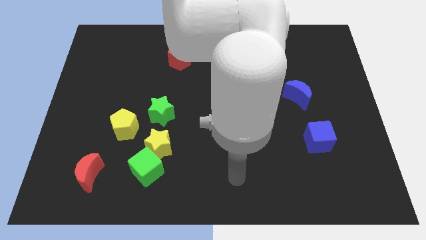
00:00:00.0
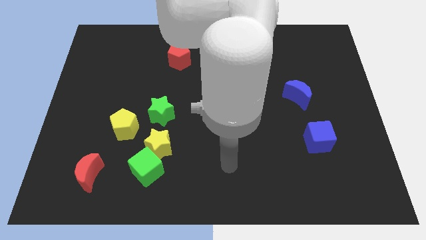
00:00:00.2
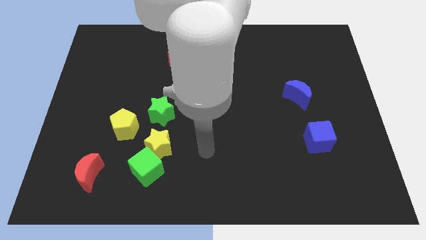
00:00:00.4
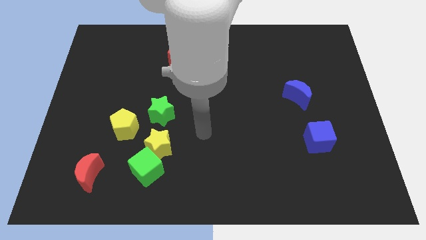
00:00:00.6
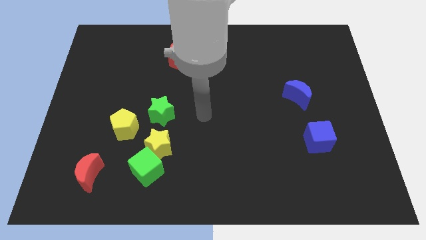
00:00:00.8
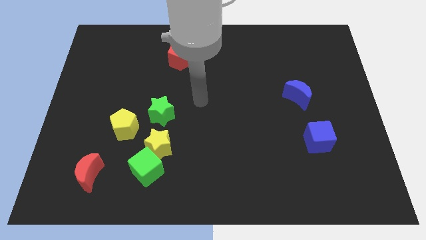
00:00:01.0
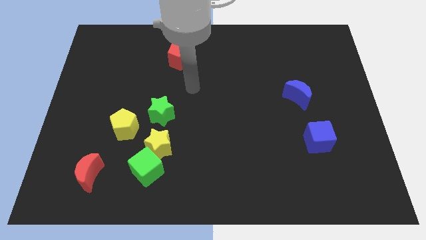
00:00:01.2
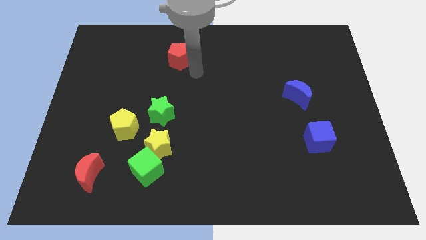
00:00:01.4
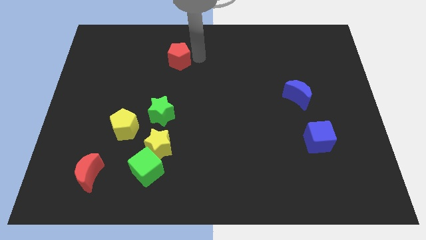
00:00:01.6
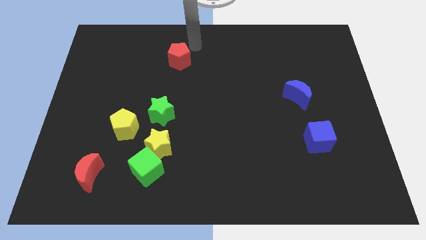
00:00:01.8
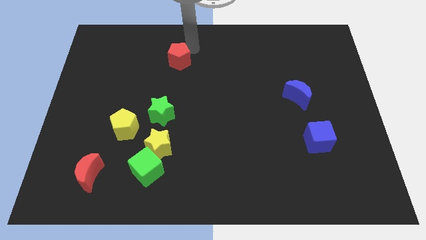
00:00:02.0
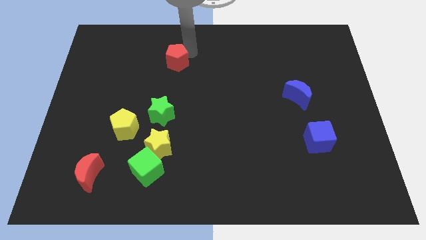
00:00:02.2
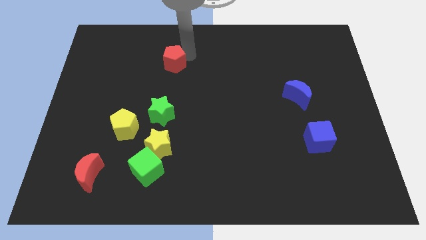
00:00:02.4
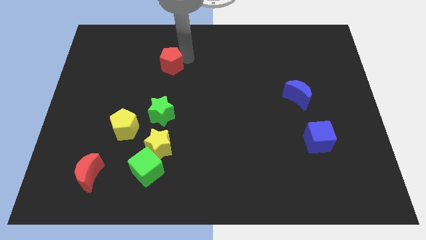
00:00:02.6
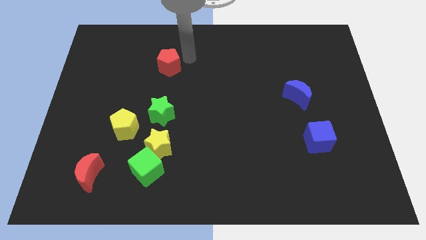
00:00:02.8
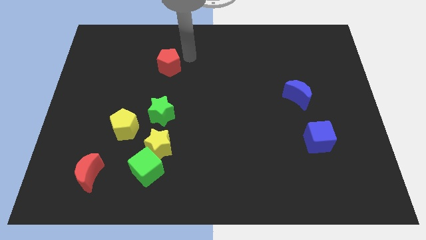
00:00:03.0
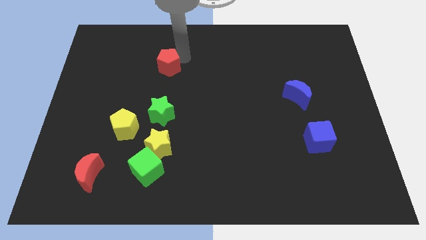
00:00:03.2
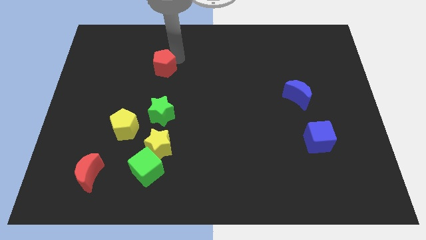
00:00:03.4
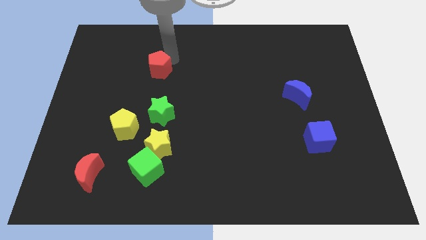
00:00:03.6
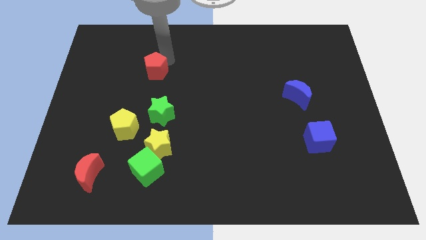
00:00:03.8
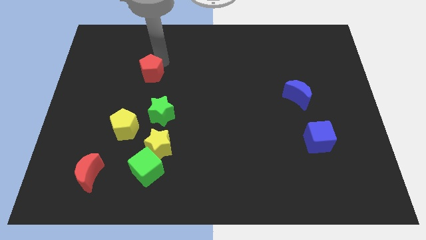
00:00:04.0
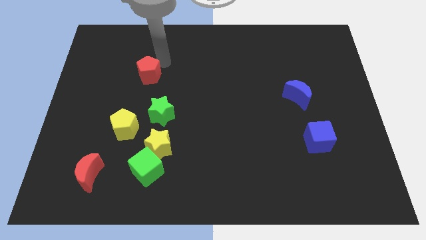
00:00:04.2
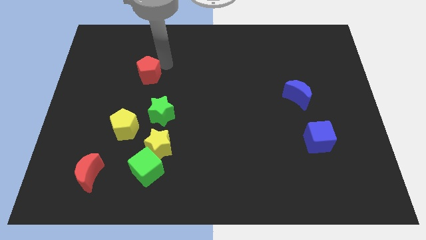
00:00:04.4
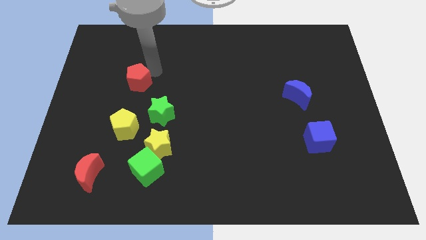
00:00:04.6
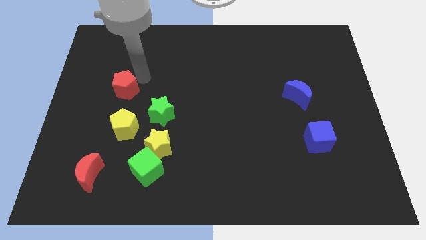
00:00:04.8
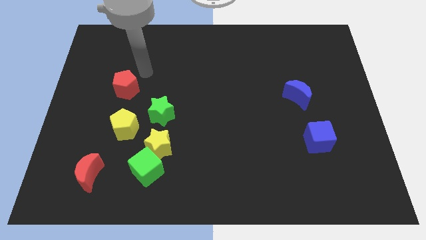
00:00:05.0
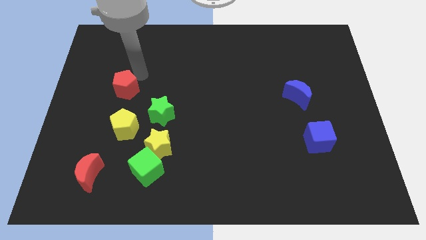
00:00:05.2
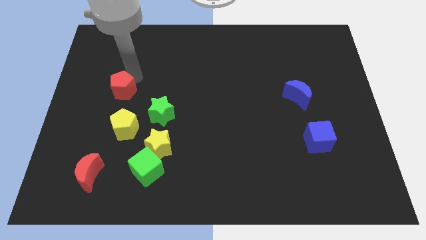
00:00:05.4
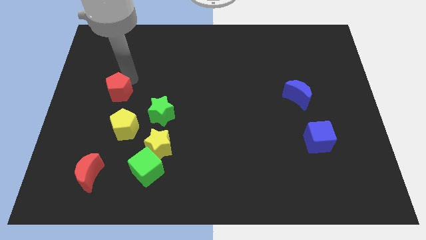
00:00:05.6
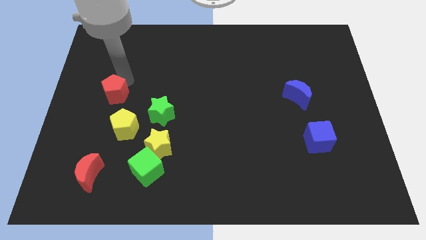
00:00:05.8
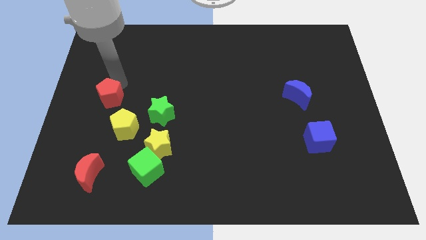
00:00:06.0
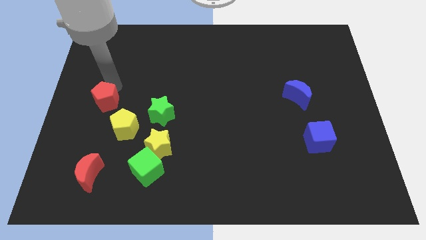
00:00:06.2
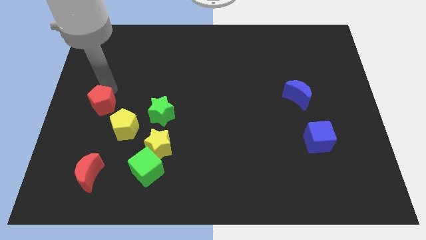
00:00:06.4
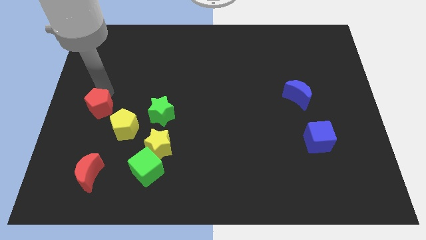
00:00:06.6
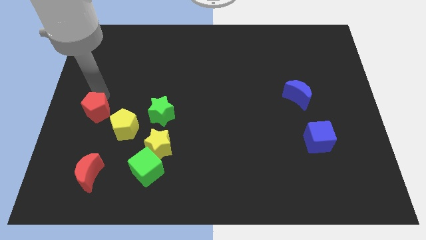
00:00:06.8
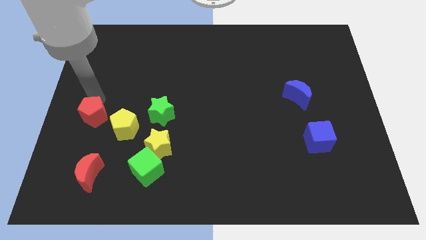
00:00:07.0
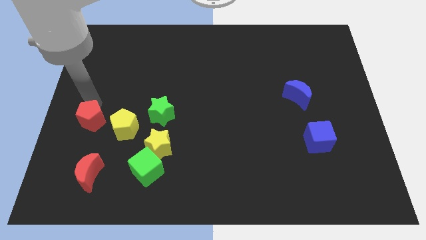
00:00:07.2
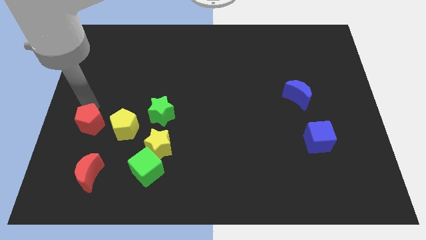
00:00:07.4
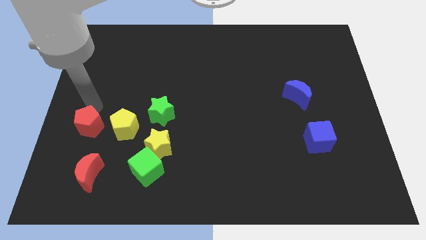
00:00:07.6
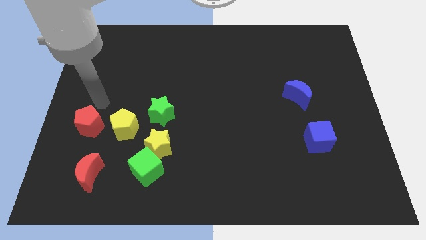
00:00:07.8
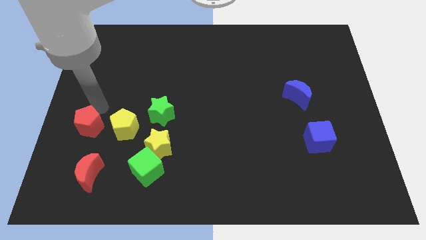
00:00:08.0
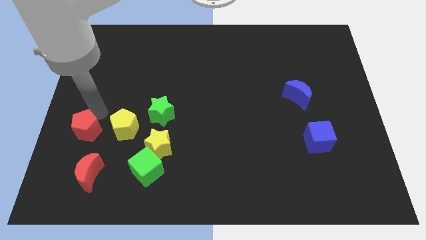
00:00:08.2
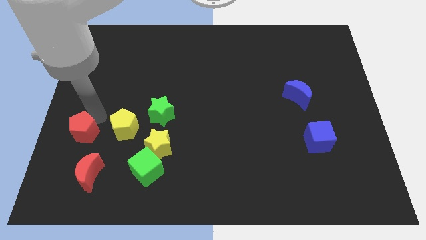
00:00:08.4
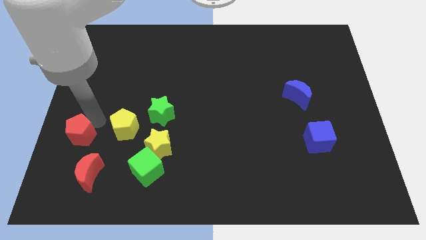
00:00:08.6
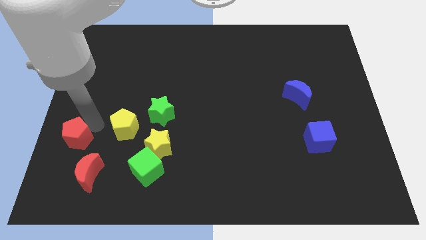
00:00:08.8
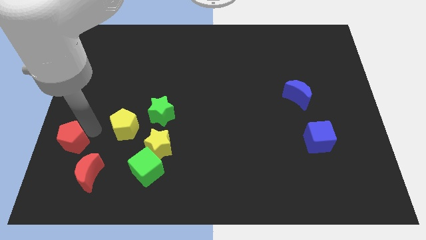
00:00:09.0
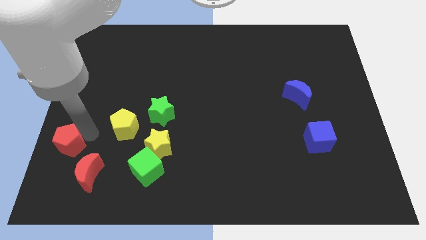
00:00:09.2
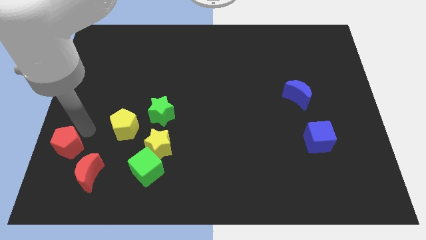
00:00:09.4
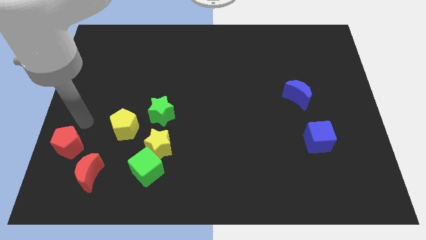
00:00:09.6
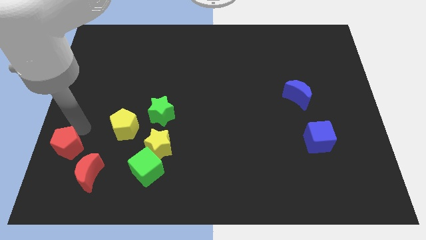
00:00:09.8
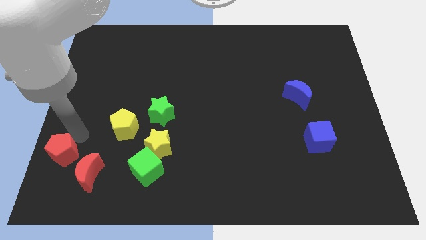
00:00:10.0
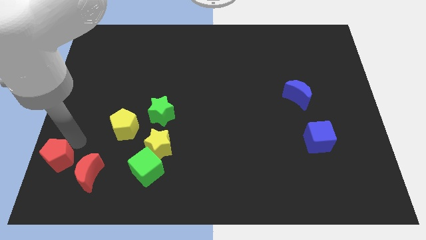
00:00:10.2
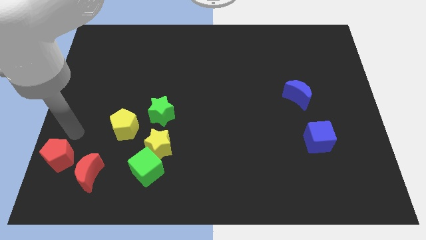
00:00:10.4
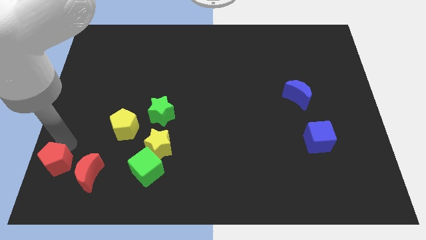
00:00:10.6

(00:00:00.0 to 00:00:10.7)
slide the red pentagon to the bottom left corner

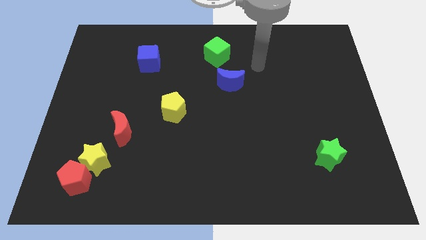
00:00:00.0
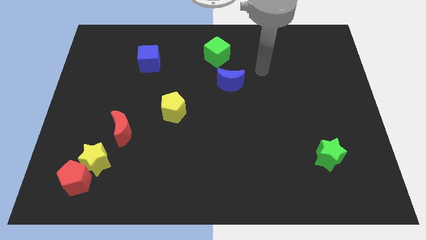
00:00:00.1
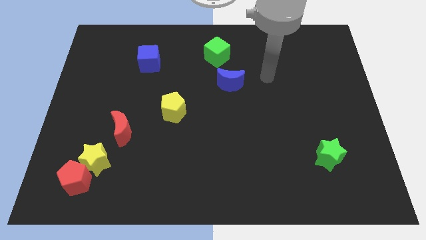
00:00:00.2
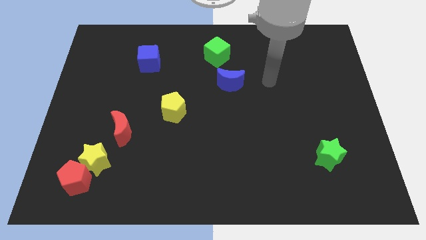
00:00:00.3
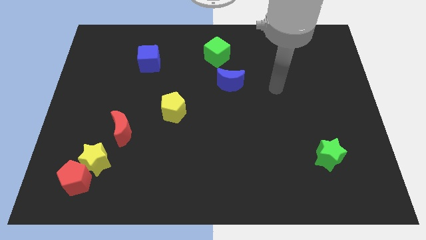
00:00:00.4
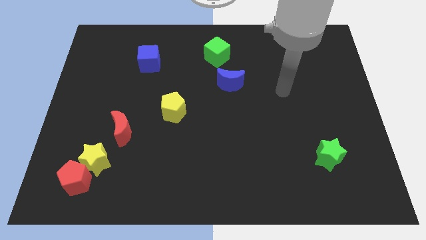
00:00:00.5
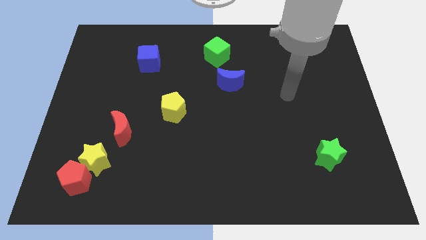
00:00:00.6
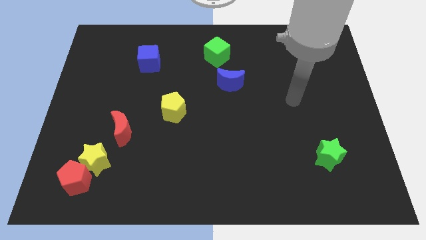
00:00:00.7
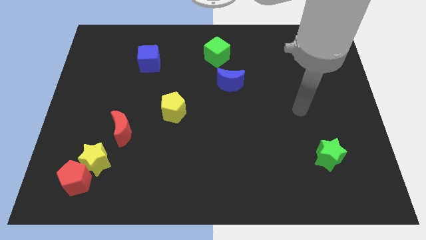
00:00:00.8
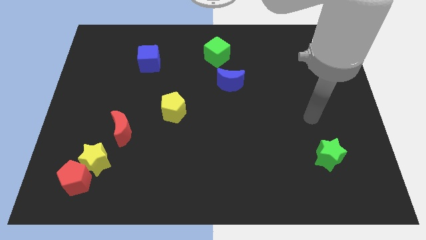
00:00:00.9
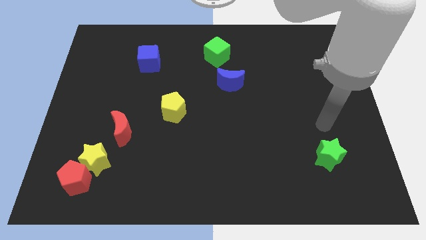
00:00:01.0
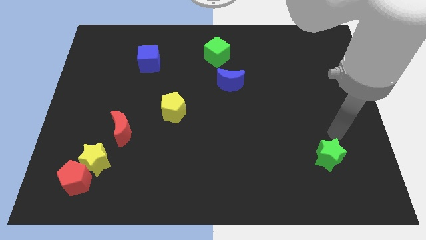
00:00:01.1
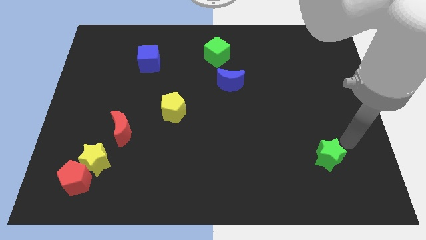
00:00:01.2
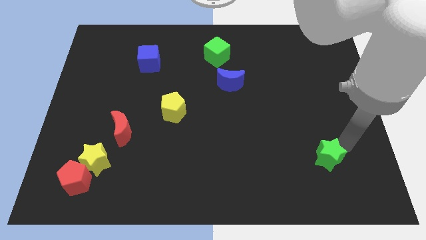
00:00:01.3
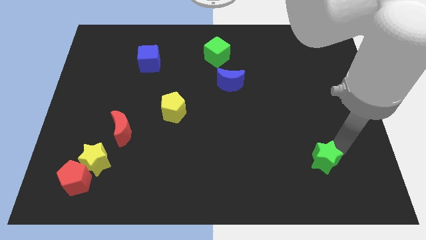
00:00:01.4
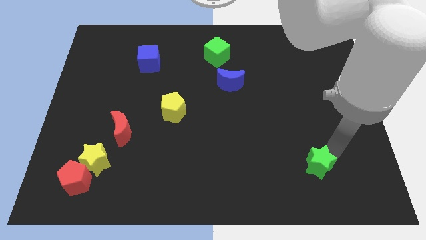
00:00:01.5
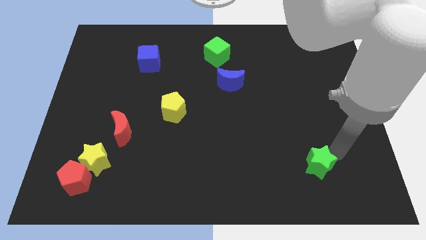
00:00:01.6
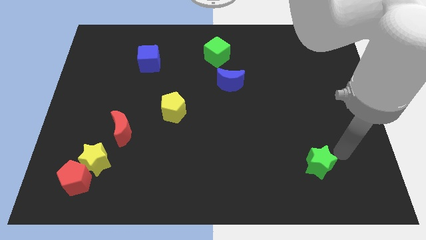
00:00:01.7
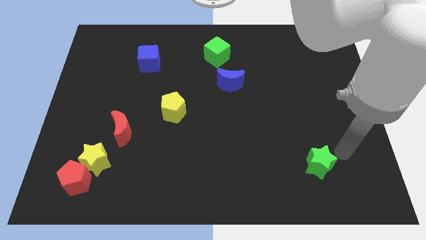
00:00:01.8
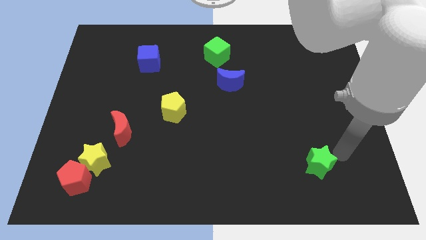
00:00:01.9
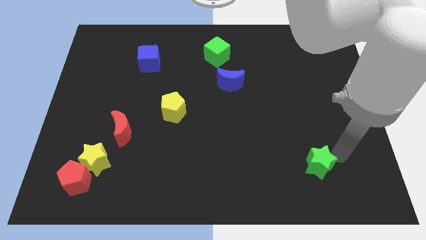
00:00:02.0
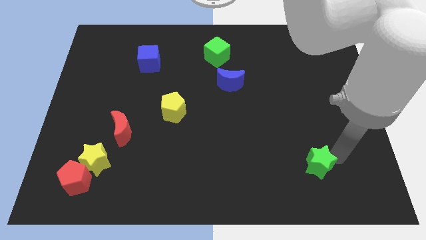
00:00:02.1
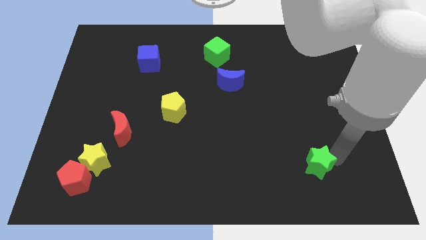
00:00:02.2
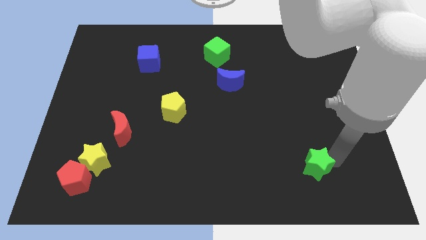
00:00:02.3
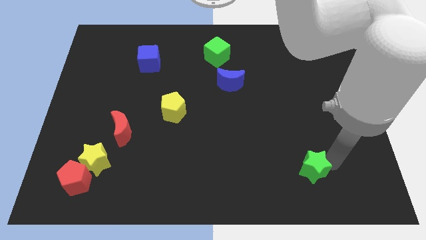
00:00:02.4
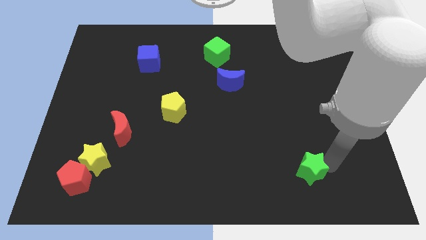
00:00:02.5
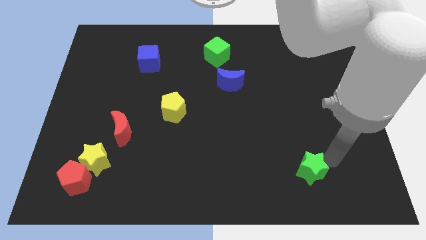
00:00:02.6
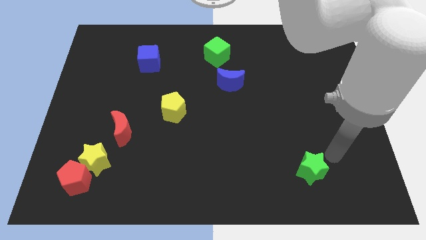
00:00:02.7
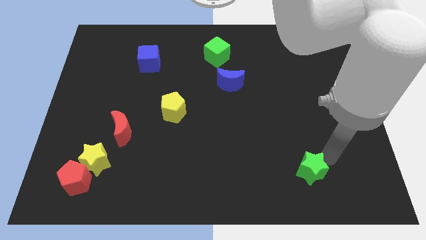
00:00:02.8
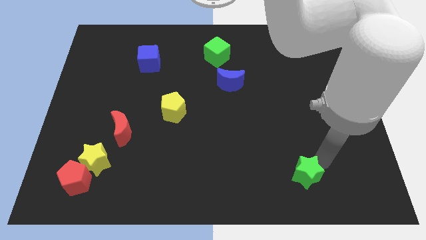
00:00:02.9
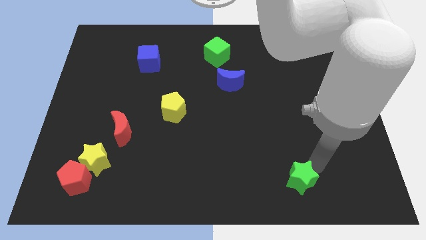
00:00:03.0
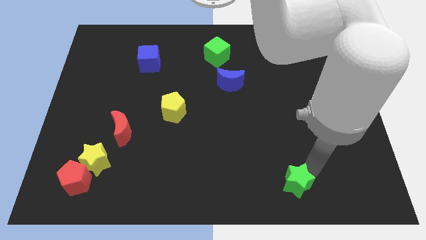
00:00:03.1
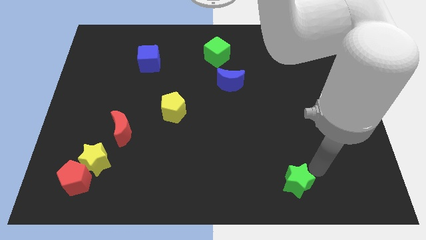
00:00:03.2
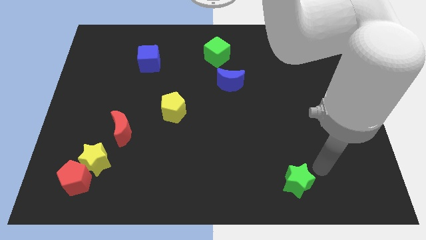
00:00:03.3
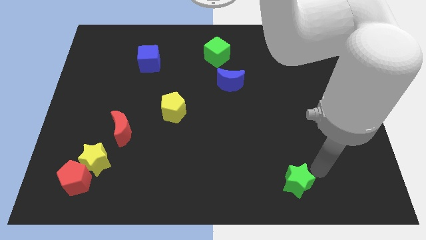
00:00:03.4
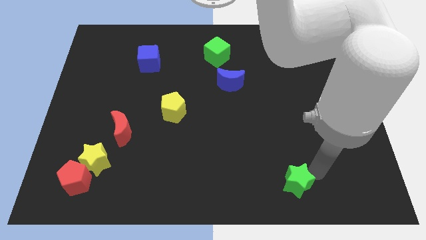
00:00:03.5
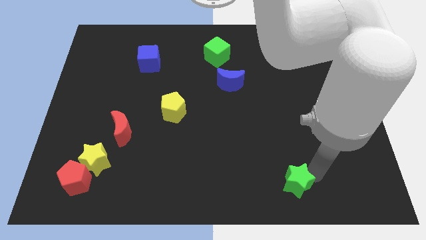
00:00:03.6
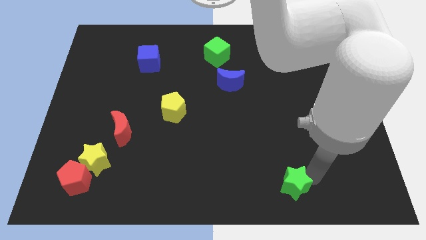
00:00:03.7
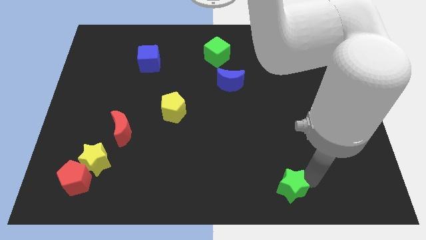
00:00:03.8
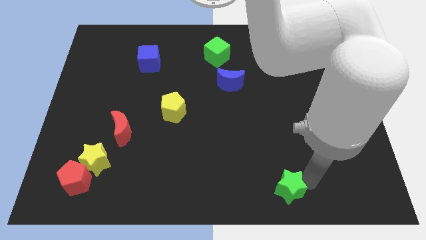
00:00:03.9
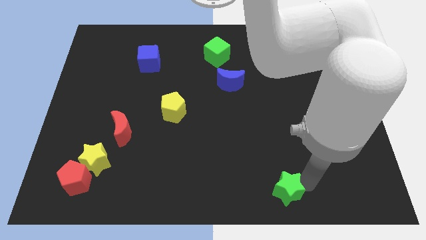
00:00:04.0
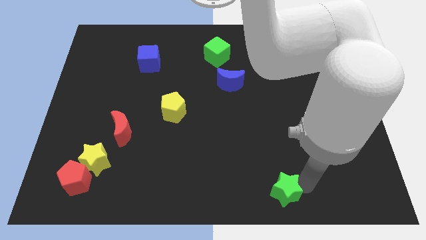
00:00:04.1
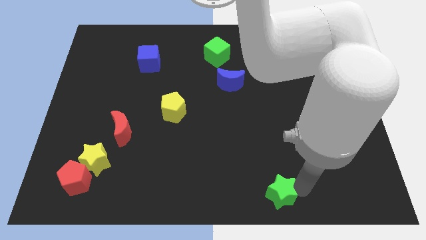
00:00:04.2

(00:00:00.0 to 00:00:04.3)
move the green star to the bottom
